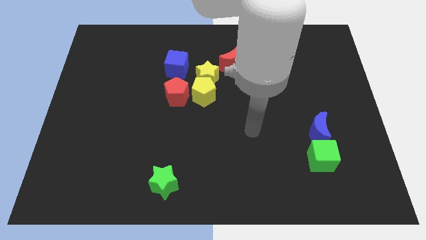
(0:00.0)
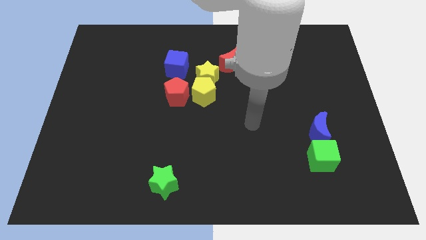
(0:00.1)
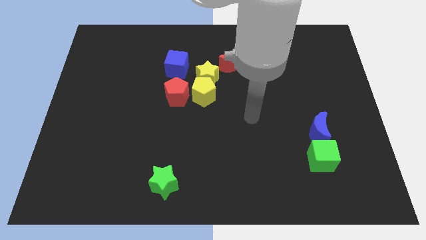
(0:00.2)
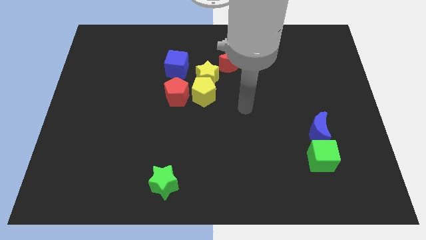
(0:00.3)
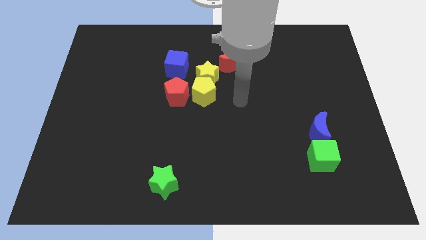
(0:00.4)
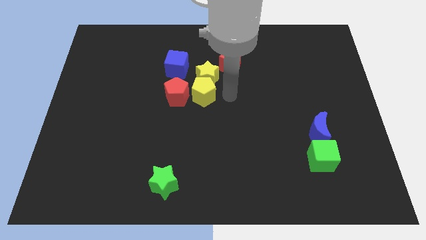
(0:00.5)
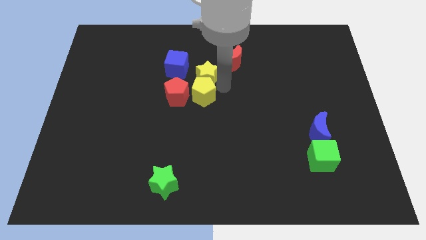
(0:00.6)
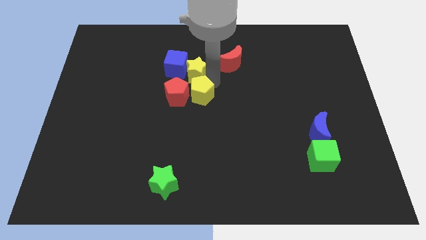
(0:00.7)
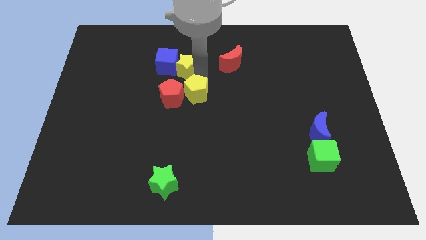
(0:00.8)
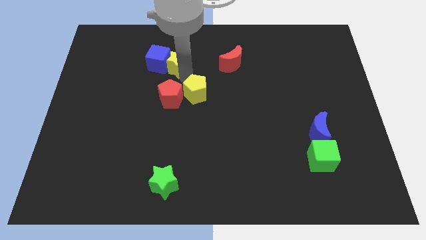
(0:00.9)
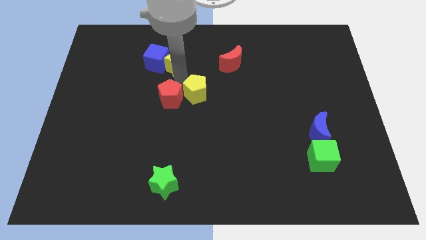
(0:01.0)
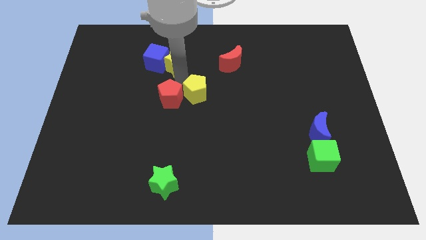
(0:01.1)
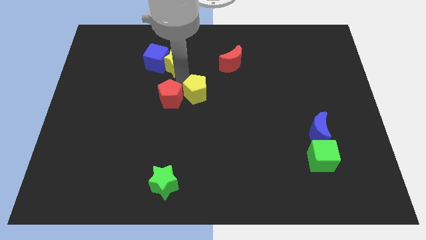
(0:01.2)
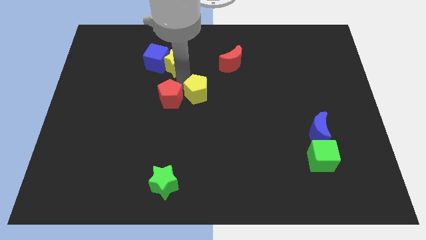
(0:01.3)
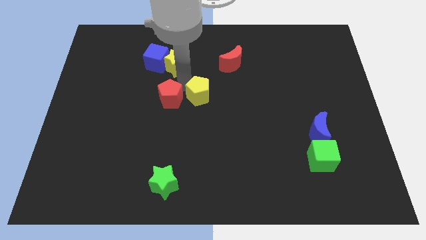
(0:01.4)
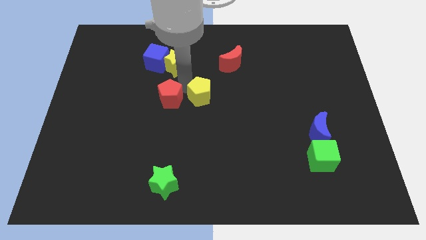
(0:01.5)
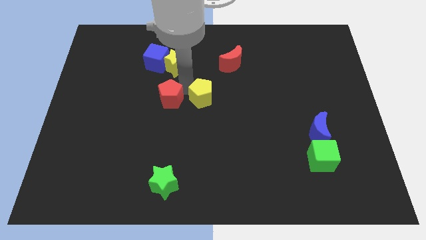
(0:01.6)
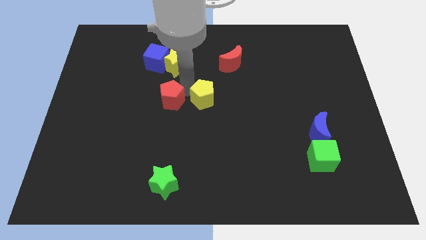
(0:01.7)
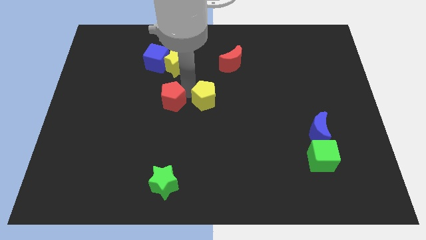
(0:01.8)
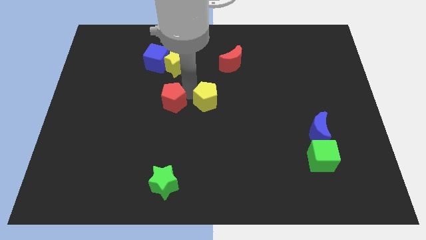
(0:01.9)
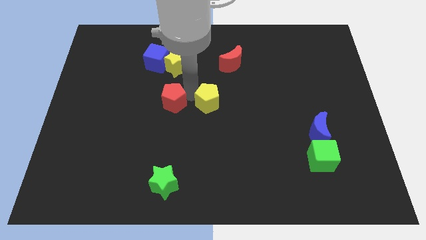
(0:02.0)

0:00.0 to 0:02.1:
move the yellow pentagon away from the yellow star and red pentagon

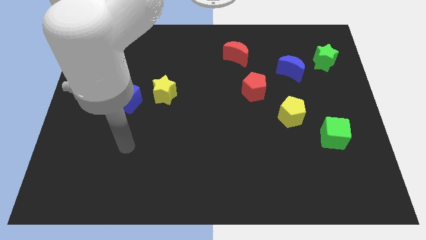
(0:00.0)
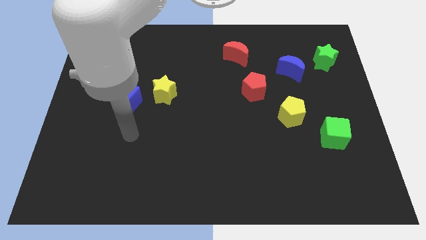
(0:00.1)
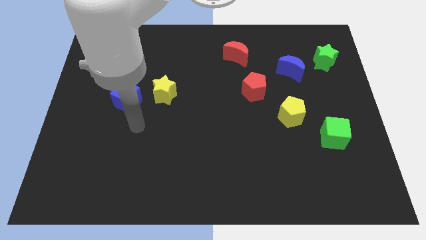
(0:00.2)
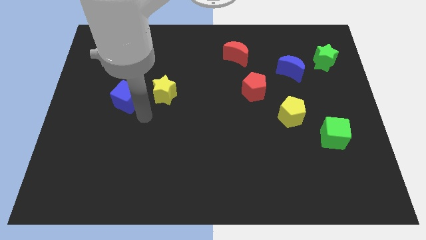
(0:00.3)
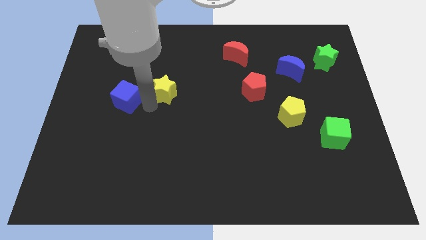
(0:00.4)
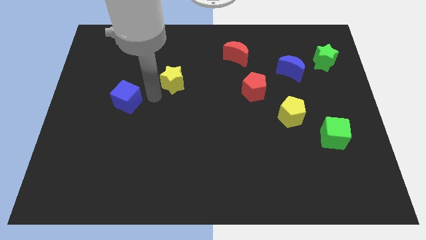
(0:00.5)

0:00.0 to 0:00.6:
separate the blue cube from the yellow star

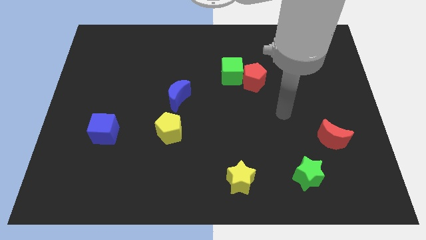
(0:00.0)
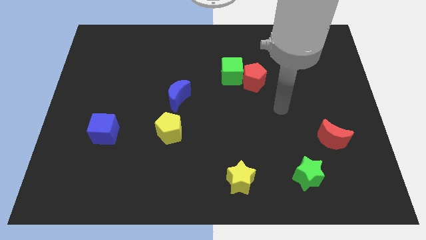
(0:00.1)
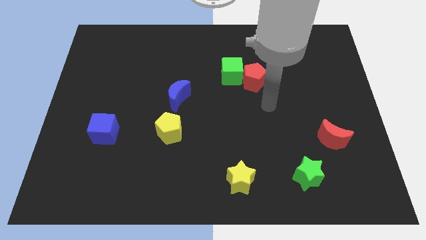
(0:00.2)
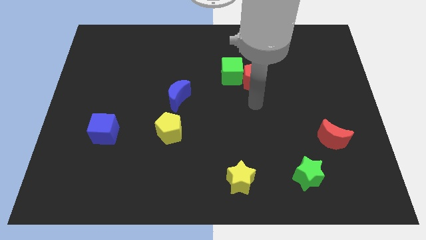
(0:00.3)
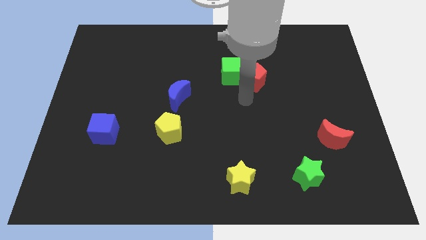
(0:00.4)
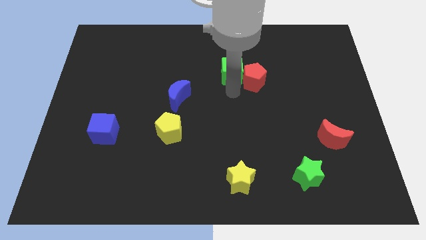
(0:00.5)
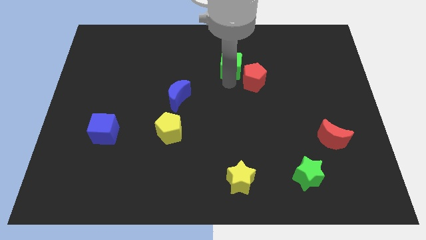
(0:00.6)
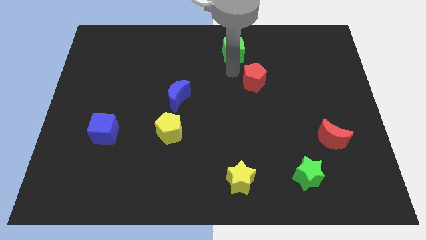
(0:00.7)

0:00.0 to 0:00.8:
pull the red pentagon apart from the green cube

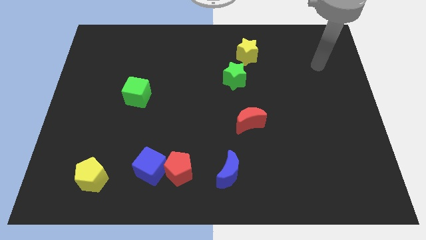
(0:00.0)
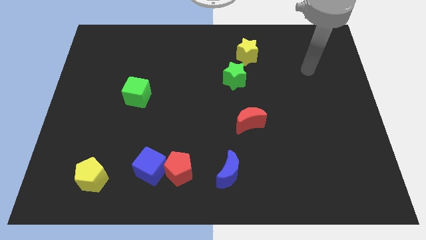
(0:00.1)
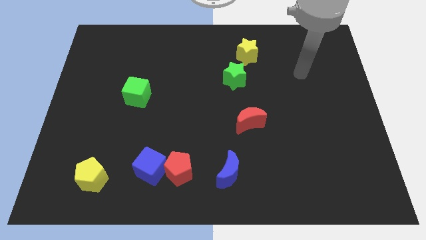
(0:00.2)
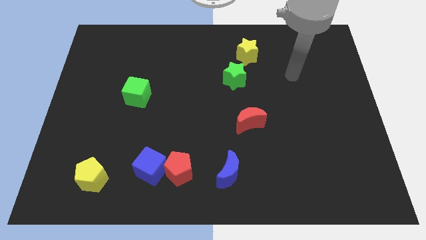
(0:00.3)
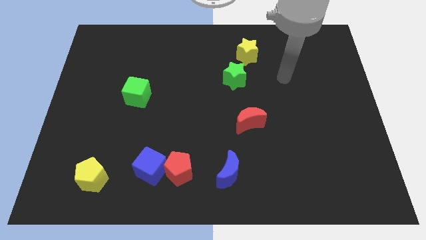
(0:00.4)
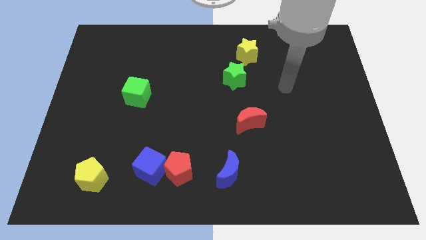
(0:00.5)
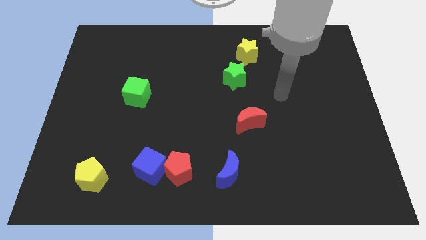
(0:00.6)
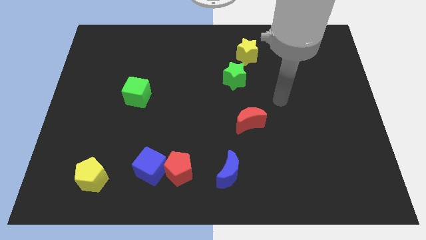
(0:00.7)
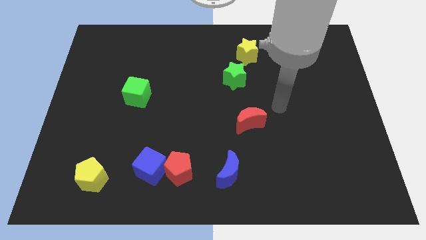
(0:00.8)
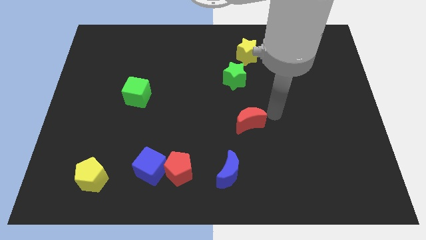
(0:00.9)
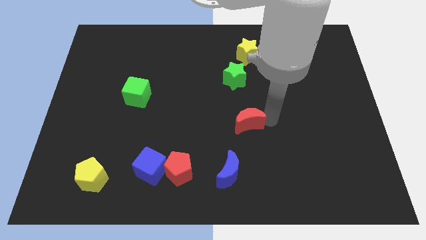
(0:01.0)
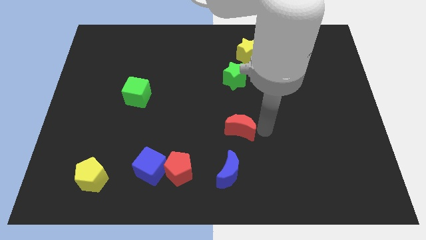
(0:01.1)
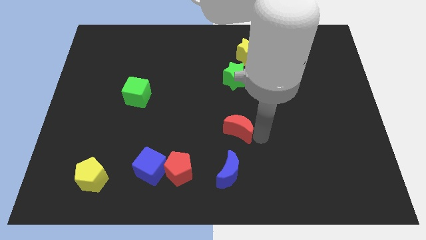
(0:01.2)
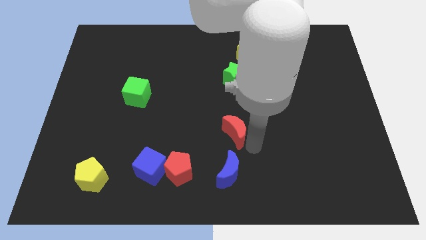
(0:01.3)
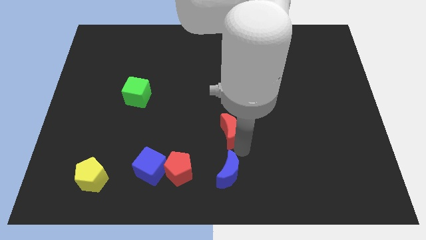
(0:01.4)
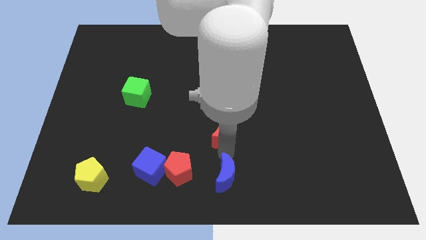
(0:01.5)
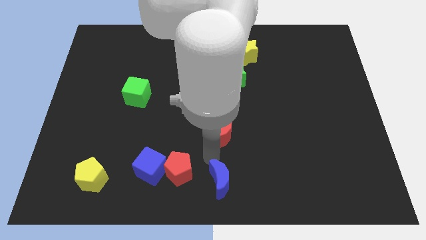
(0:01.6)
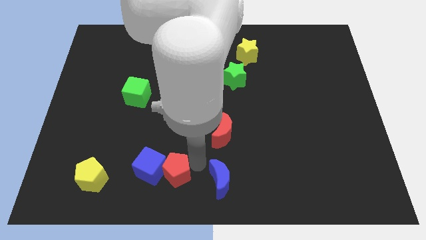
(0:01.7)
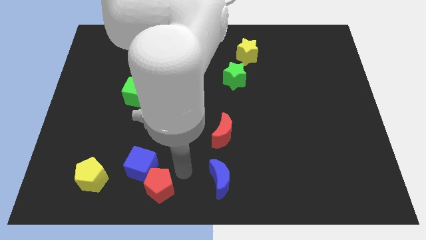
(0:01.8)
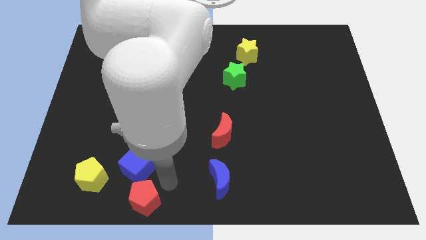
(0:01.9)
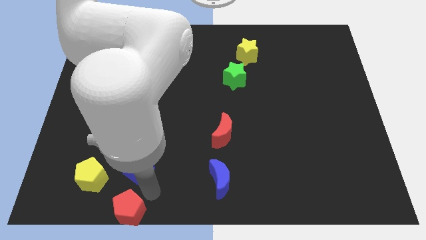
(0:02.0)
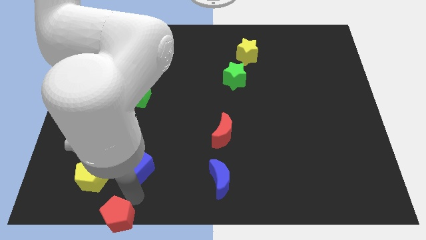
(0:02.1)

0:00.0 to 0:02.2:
move the blue cube away from the red pentagon

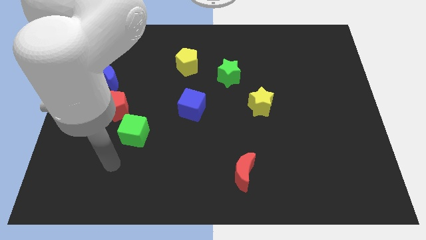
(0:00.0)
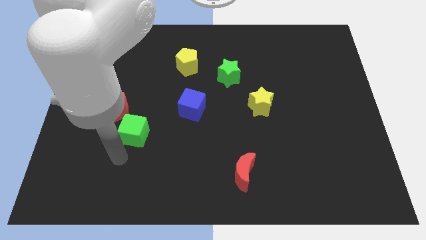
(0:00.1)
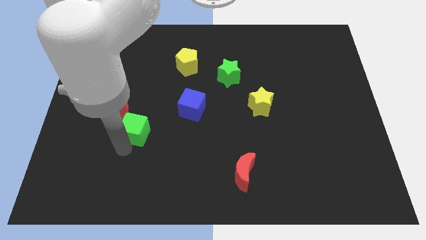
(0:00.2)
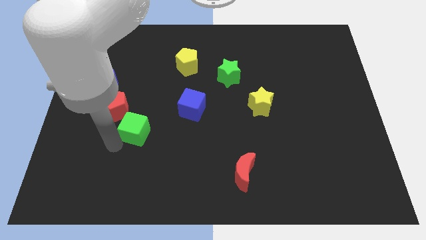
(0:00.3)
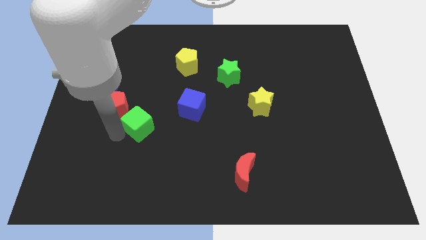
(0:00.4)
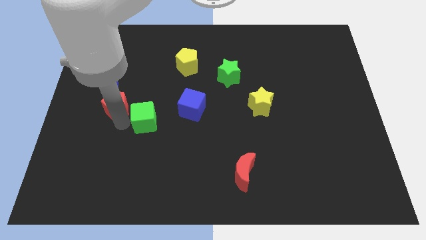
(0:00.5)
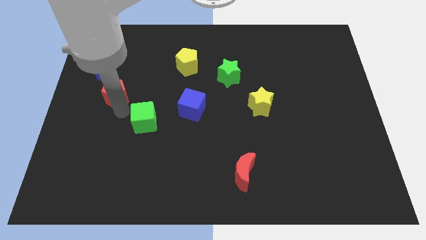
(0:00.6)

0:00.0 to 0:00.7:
separate the green cube from the red pentagon

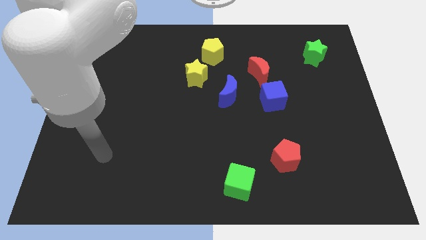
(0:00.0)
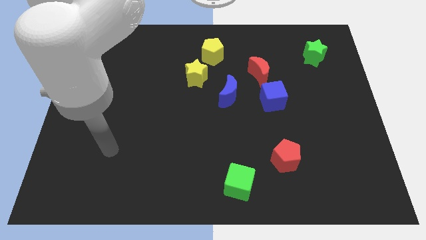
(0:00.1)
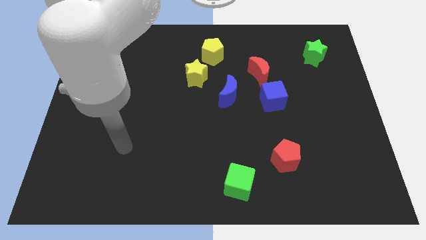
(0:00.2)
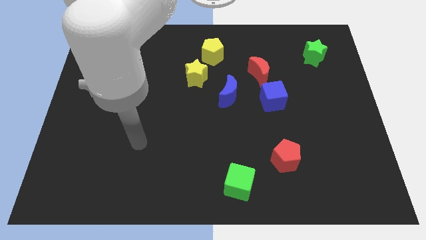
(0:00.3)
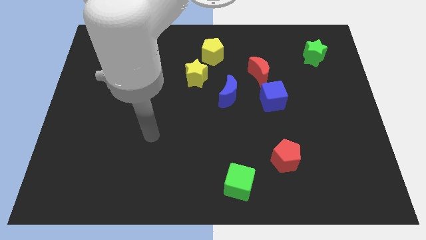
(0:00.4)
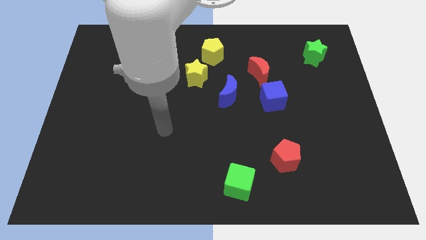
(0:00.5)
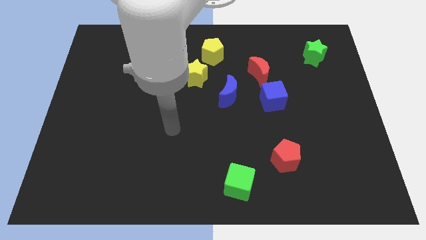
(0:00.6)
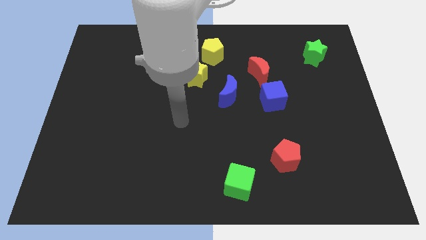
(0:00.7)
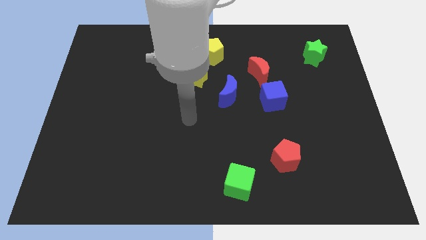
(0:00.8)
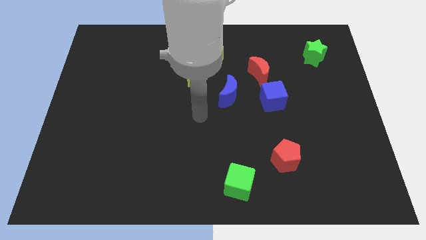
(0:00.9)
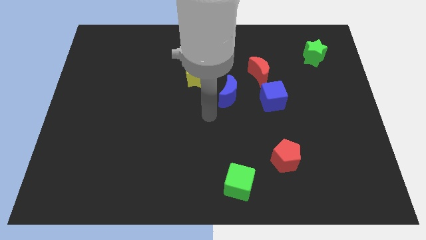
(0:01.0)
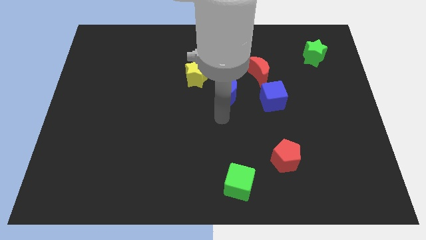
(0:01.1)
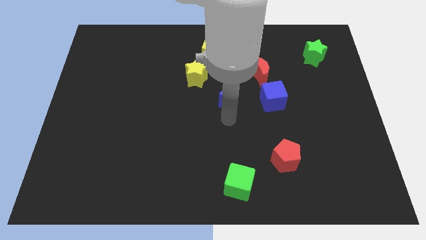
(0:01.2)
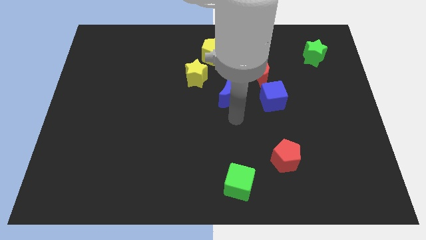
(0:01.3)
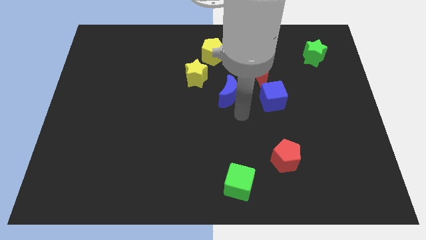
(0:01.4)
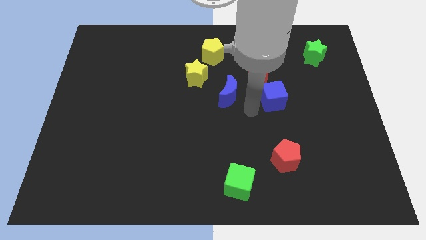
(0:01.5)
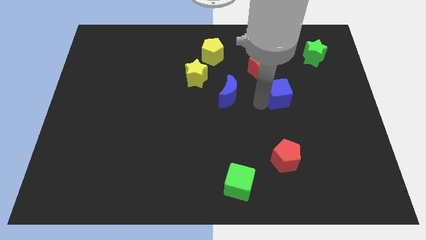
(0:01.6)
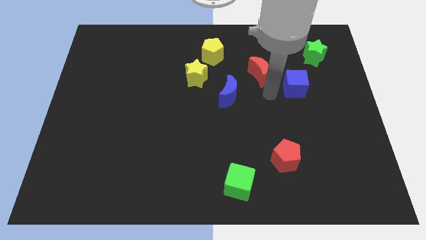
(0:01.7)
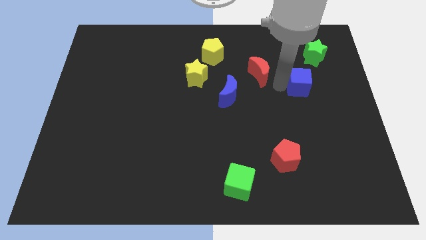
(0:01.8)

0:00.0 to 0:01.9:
separate the red moon from the blue cube

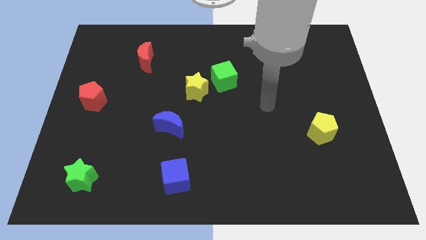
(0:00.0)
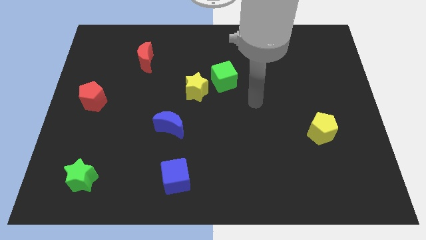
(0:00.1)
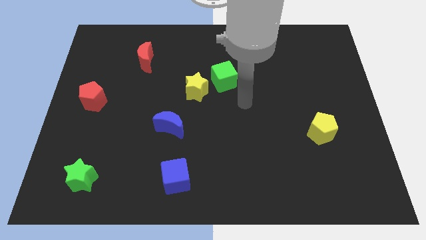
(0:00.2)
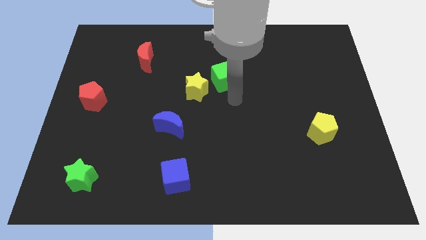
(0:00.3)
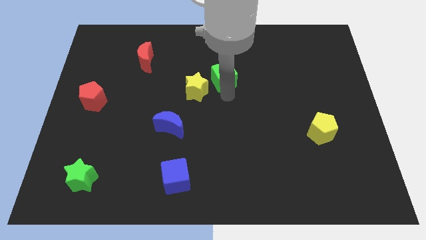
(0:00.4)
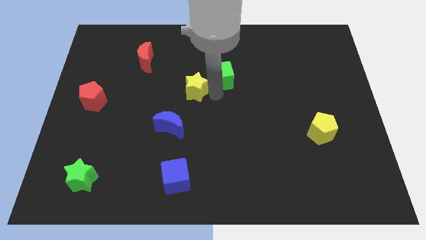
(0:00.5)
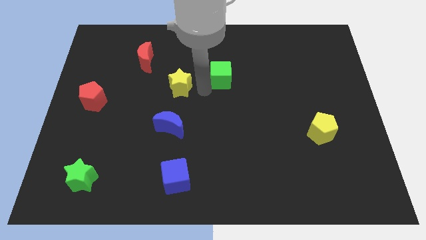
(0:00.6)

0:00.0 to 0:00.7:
separate the green cube from the yellow star

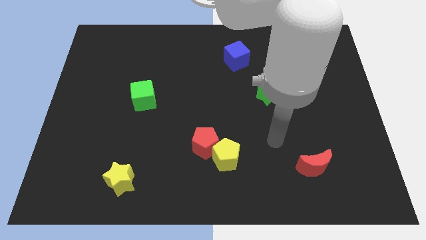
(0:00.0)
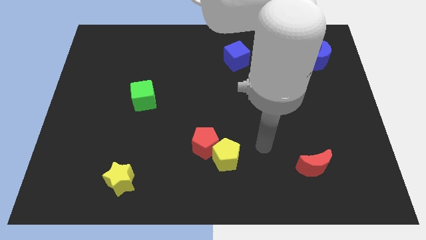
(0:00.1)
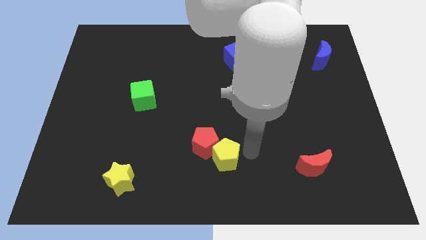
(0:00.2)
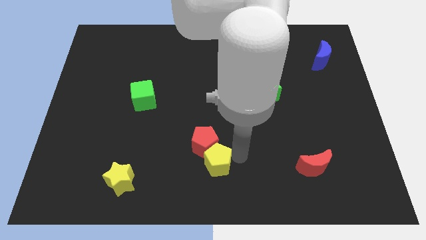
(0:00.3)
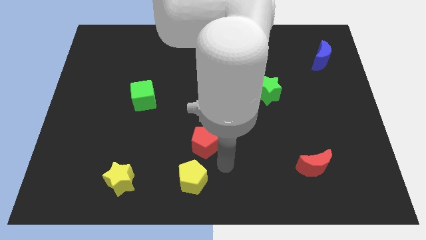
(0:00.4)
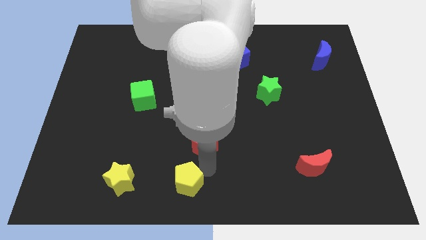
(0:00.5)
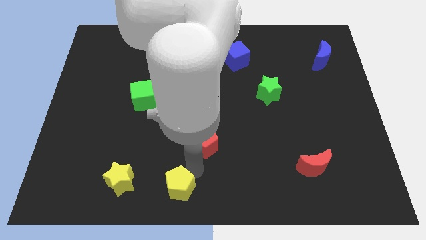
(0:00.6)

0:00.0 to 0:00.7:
pull the red pentagon apart from the yellow pentagon
